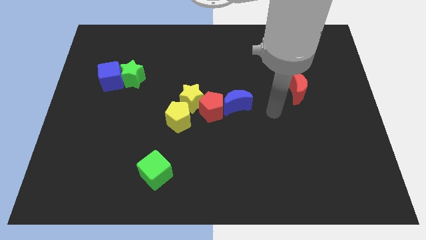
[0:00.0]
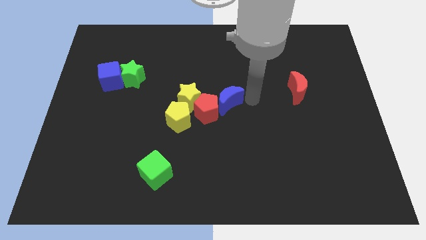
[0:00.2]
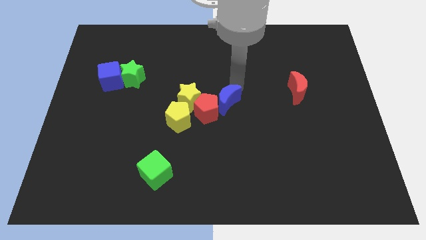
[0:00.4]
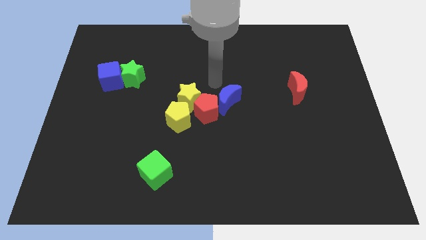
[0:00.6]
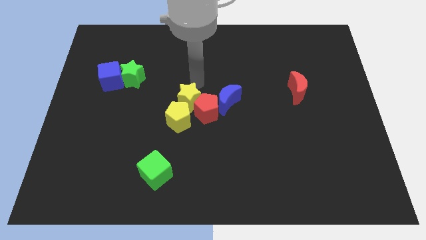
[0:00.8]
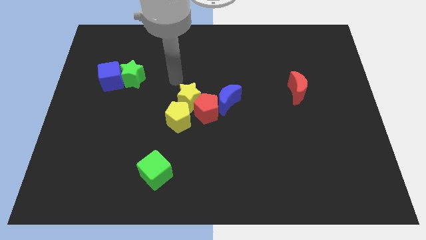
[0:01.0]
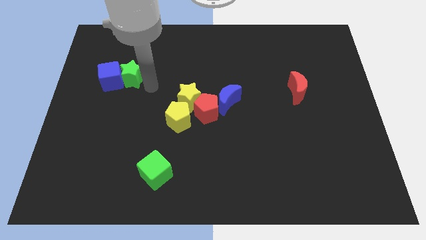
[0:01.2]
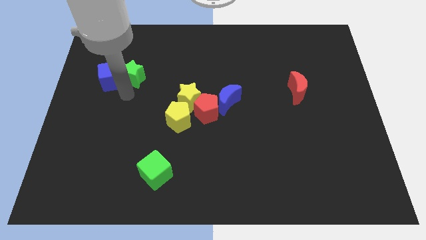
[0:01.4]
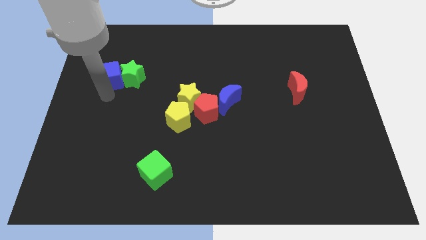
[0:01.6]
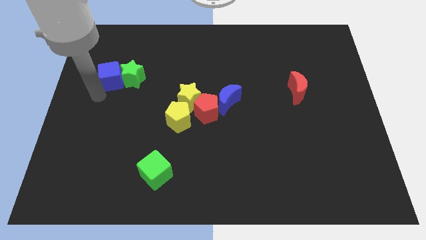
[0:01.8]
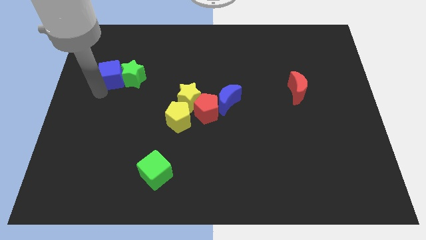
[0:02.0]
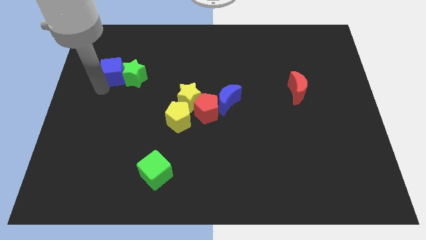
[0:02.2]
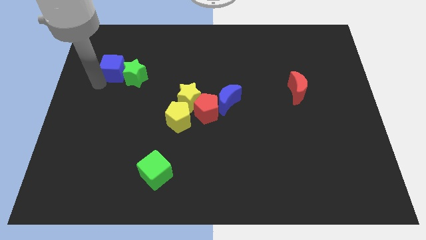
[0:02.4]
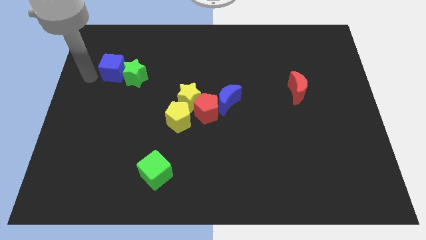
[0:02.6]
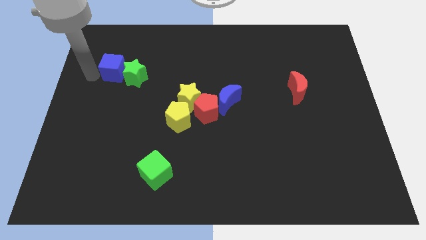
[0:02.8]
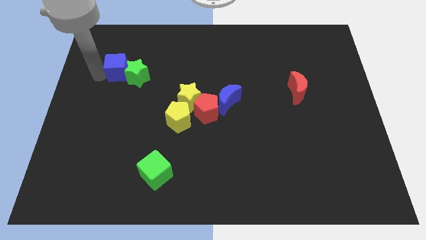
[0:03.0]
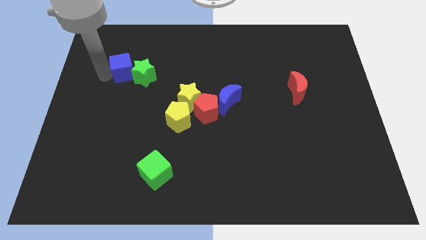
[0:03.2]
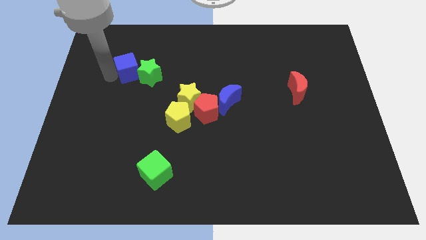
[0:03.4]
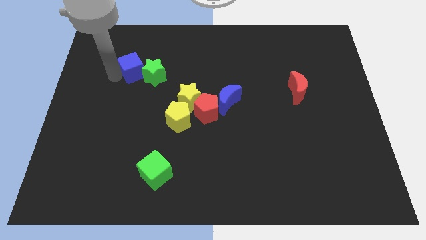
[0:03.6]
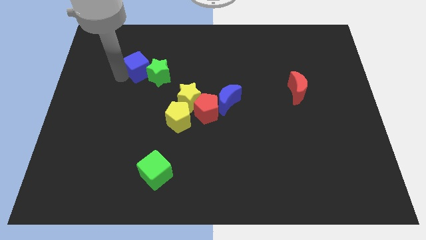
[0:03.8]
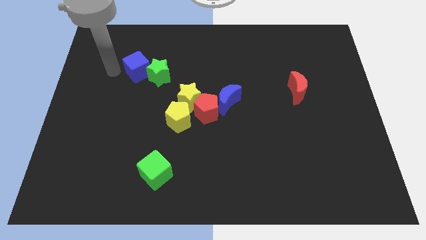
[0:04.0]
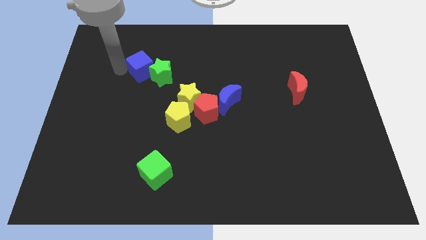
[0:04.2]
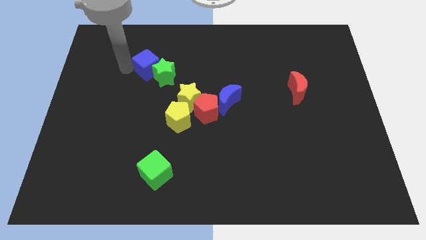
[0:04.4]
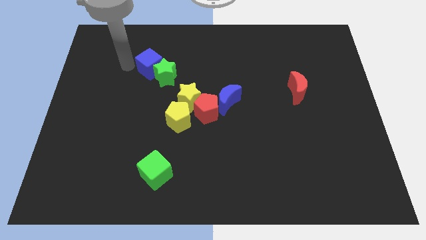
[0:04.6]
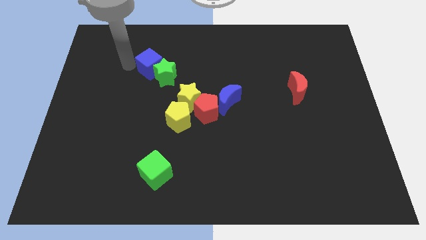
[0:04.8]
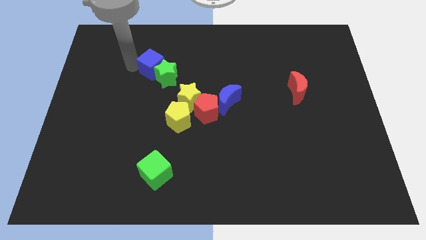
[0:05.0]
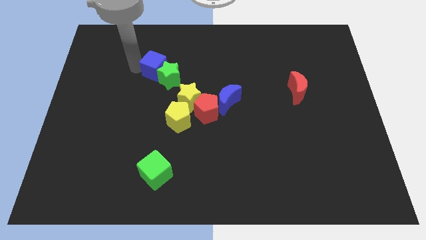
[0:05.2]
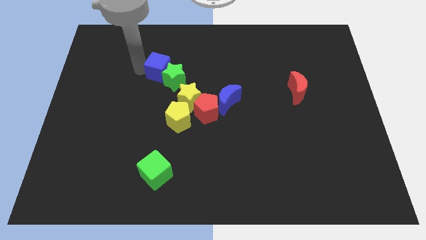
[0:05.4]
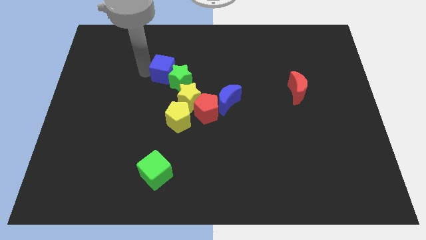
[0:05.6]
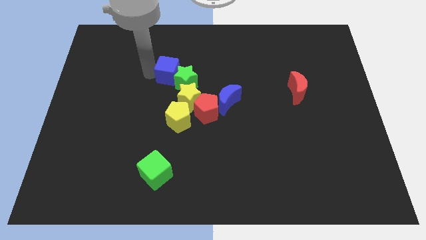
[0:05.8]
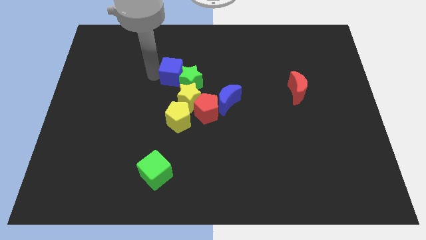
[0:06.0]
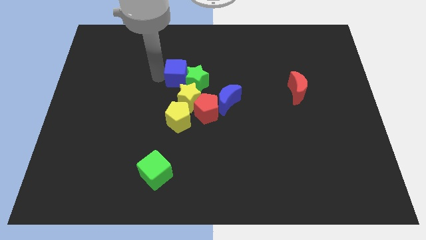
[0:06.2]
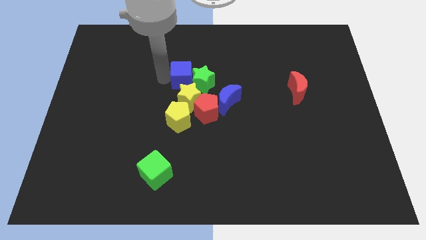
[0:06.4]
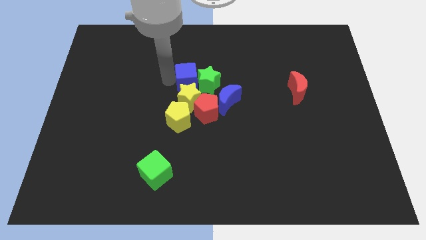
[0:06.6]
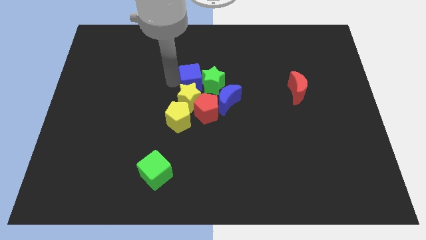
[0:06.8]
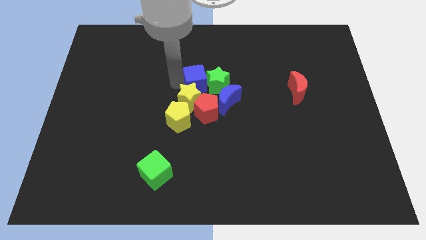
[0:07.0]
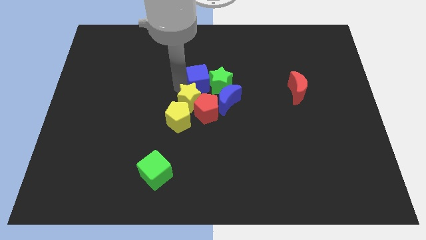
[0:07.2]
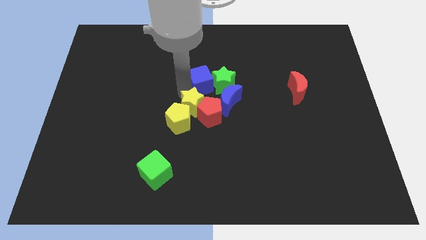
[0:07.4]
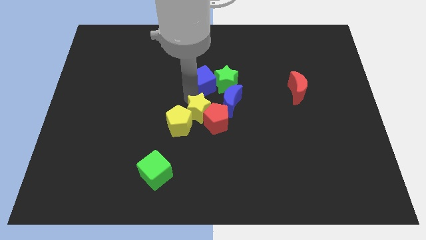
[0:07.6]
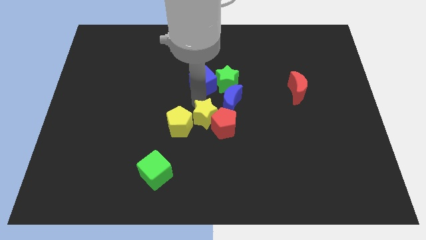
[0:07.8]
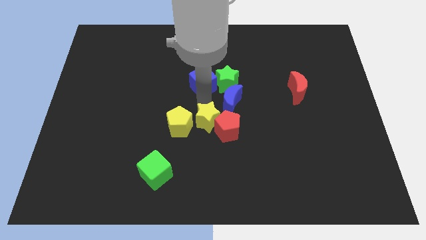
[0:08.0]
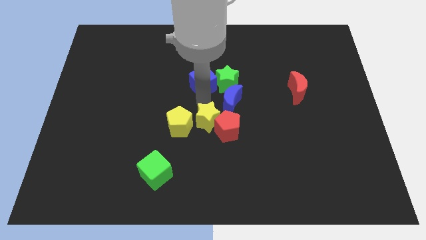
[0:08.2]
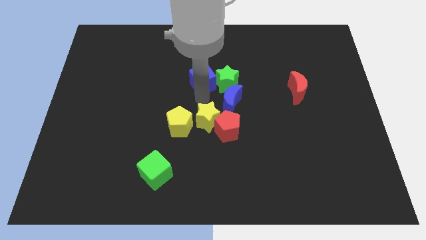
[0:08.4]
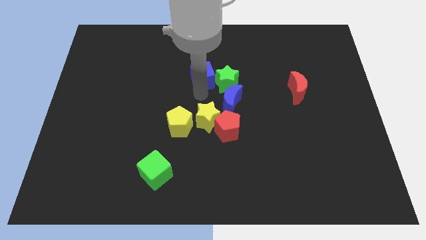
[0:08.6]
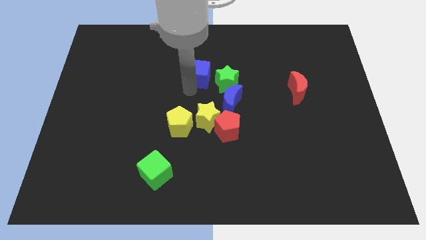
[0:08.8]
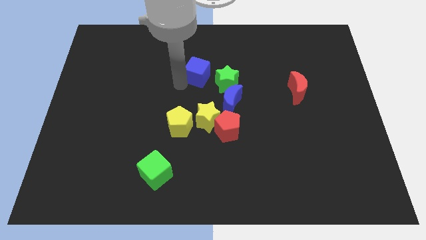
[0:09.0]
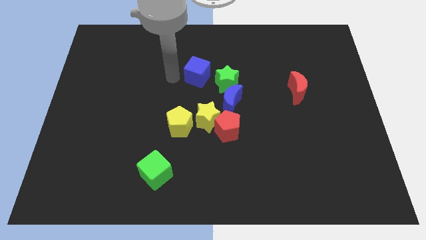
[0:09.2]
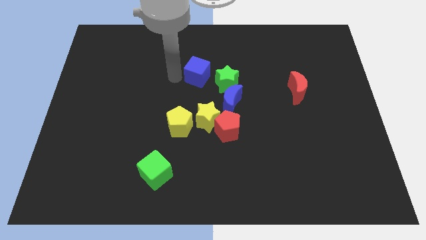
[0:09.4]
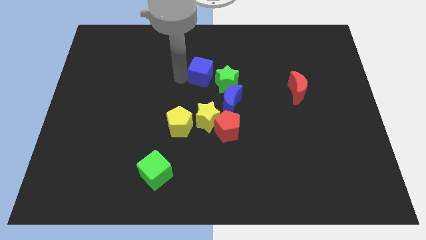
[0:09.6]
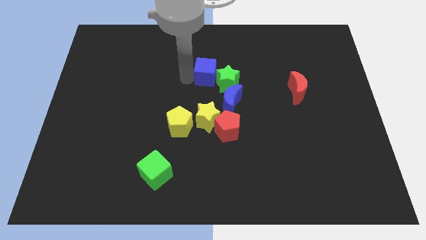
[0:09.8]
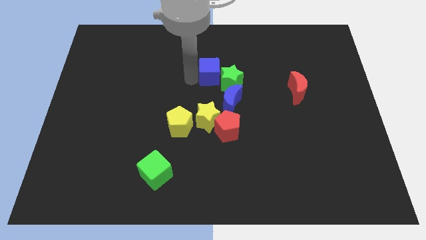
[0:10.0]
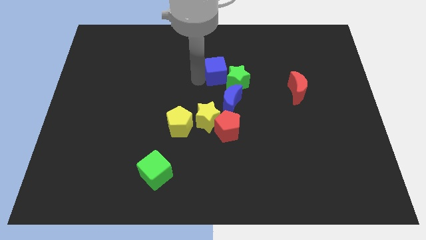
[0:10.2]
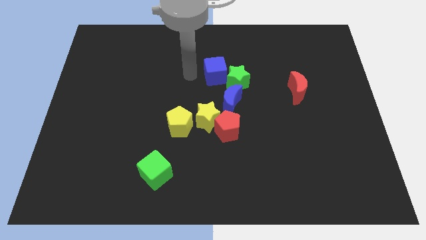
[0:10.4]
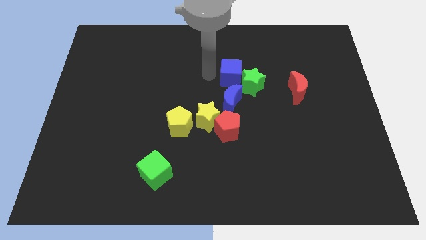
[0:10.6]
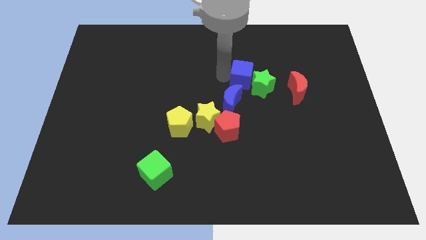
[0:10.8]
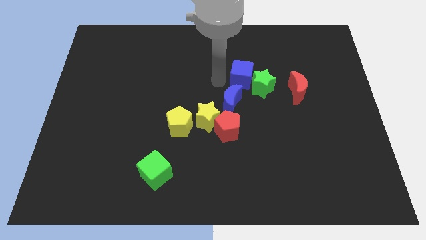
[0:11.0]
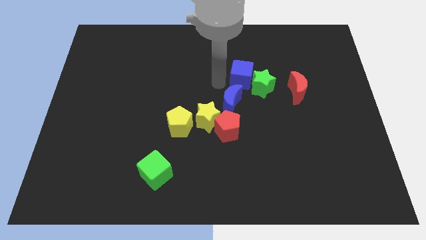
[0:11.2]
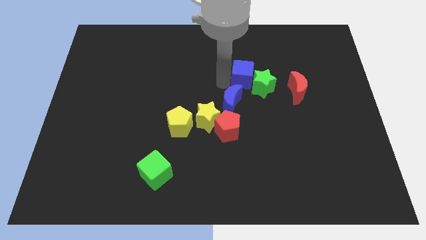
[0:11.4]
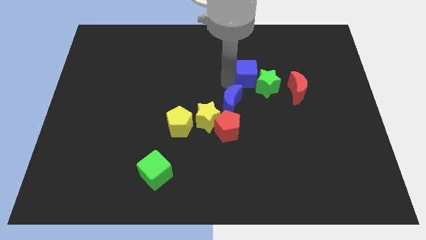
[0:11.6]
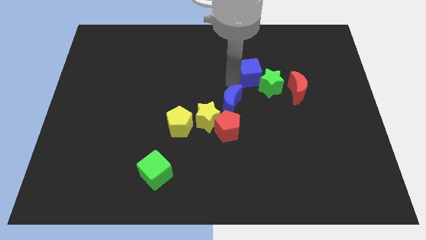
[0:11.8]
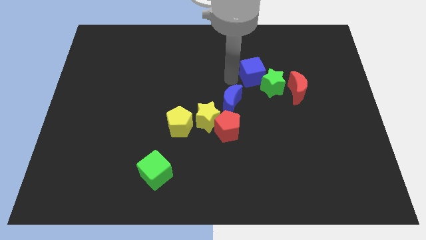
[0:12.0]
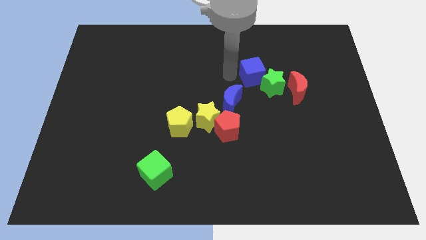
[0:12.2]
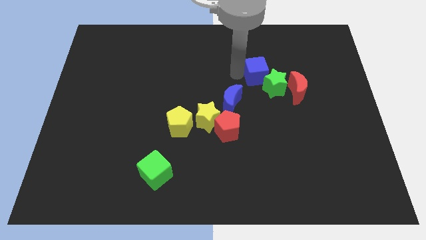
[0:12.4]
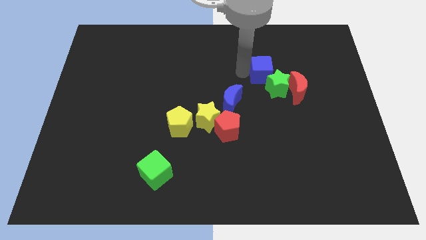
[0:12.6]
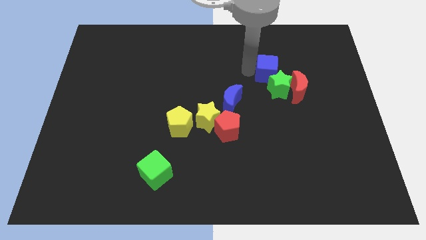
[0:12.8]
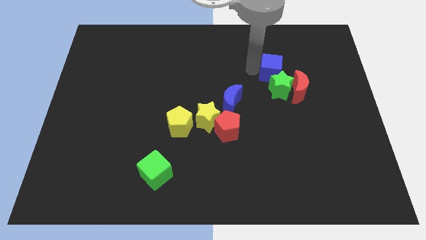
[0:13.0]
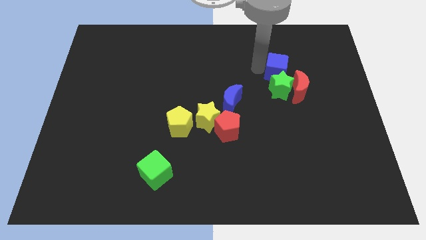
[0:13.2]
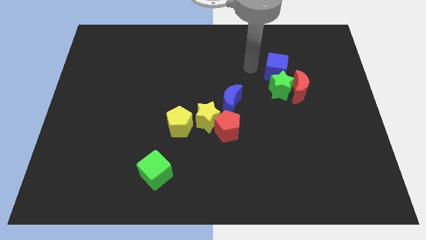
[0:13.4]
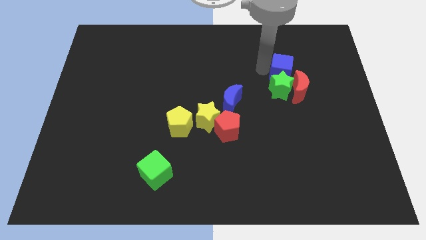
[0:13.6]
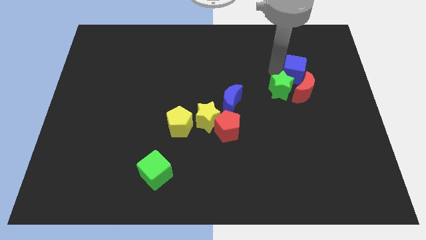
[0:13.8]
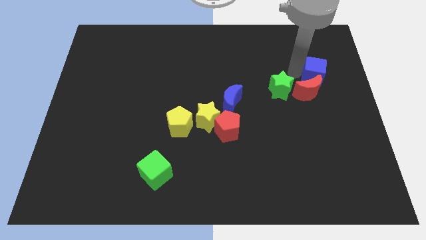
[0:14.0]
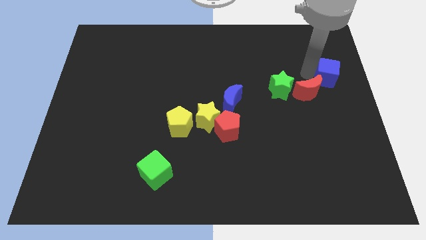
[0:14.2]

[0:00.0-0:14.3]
move the blue cube to the right side

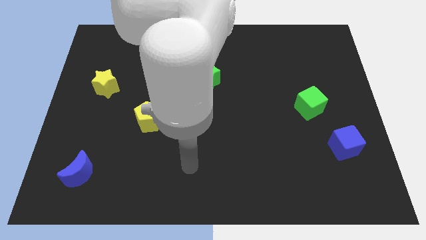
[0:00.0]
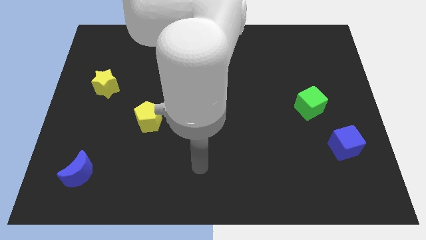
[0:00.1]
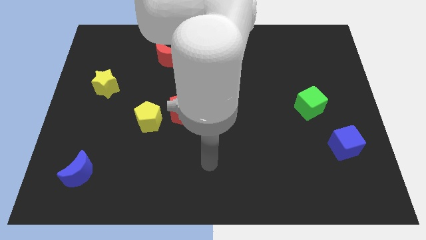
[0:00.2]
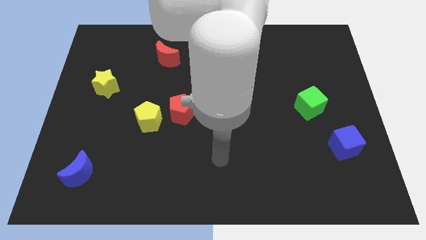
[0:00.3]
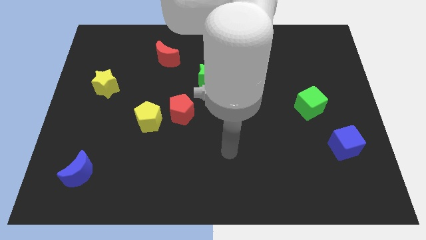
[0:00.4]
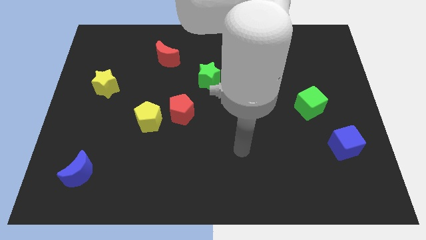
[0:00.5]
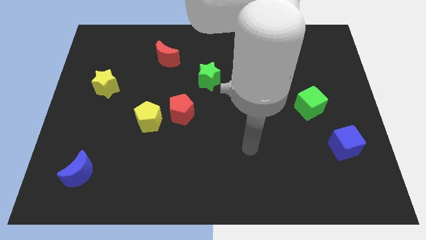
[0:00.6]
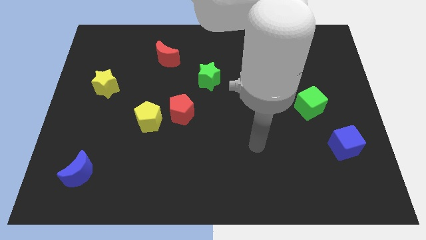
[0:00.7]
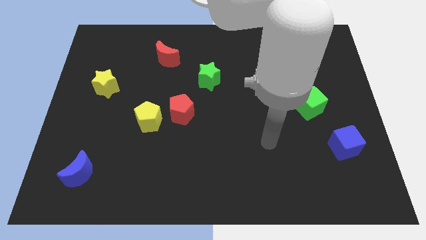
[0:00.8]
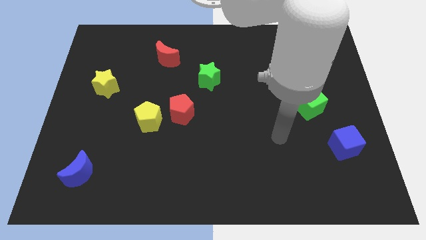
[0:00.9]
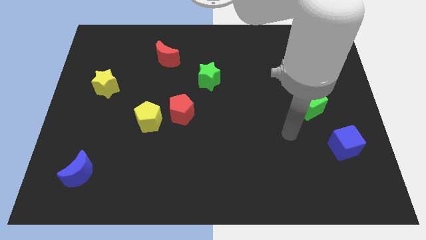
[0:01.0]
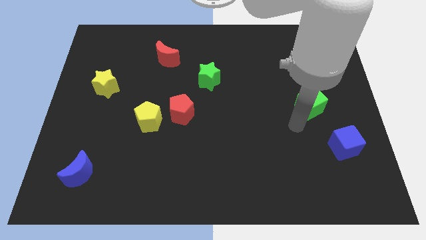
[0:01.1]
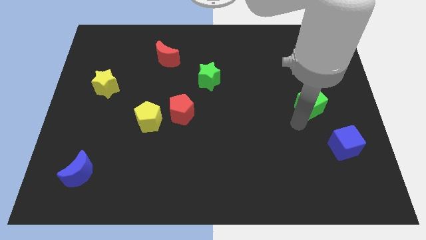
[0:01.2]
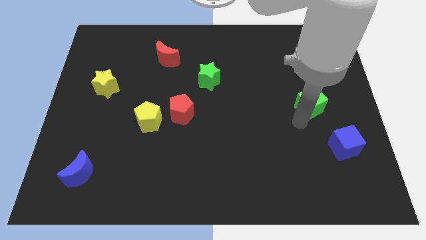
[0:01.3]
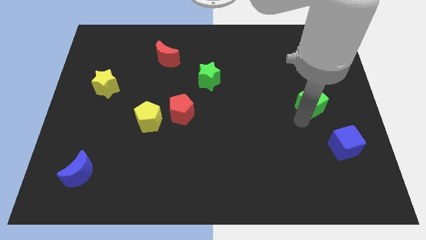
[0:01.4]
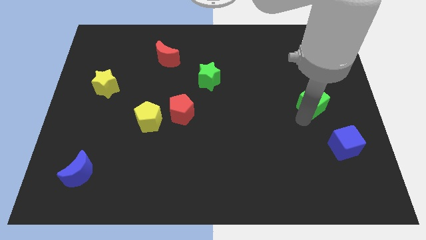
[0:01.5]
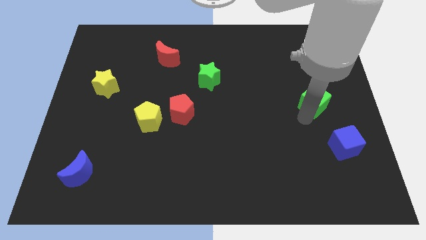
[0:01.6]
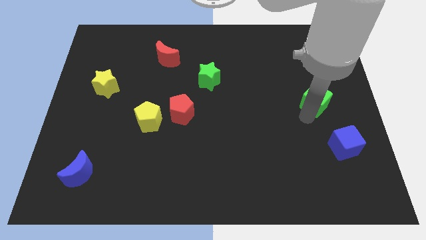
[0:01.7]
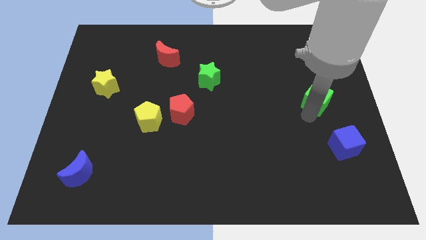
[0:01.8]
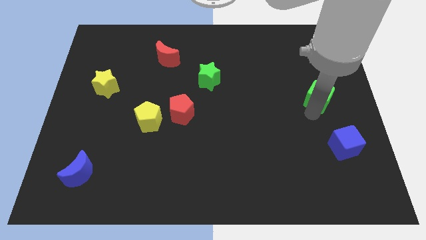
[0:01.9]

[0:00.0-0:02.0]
push the green cube to the right side of the board
